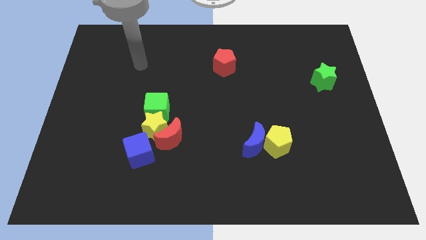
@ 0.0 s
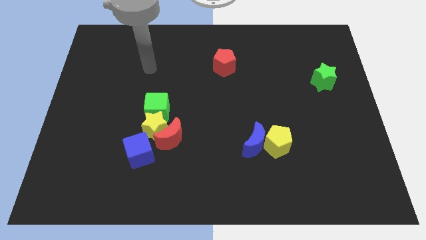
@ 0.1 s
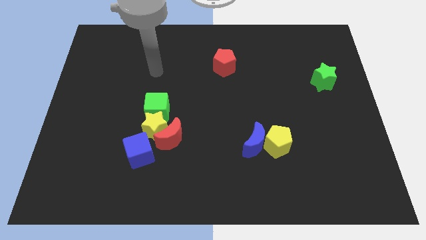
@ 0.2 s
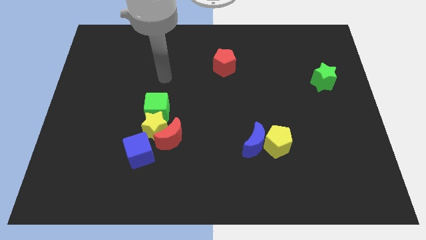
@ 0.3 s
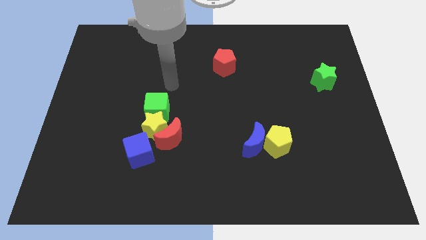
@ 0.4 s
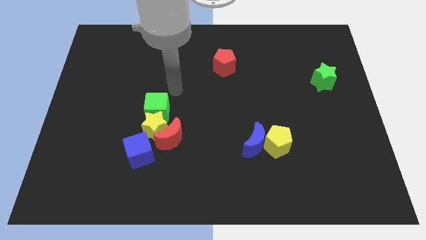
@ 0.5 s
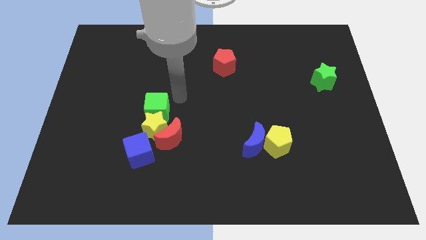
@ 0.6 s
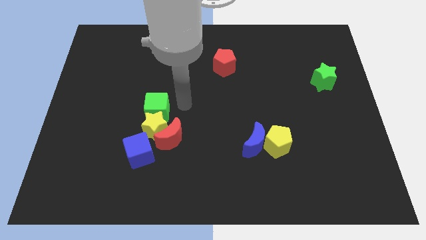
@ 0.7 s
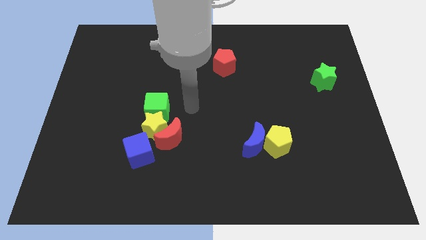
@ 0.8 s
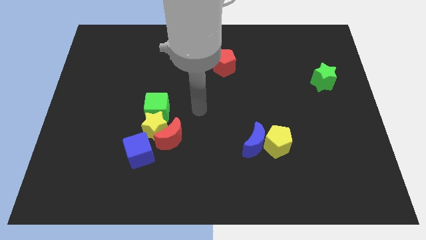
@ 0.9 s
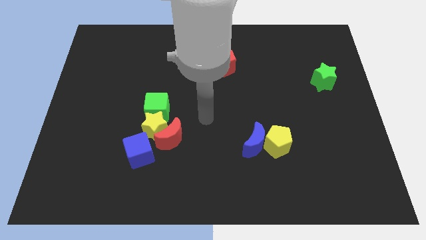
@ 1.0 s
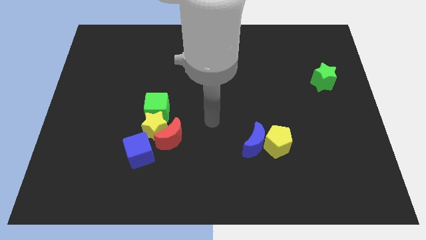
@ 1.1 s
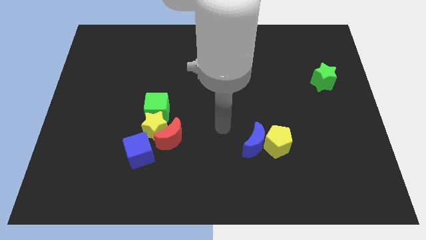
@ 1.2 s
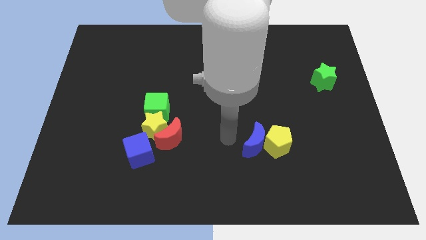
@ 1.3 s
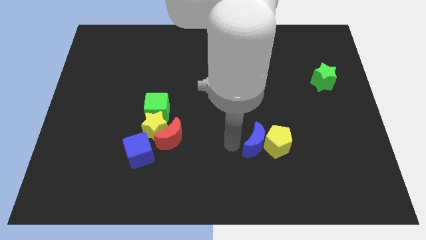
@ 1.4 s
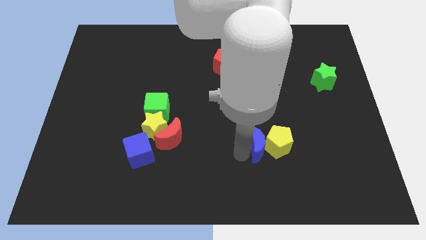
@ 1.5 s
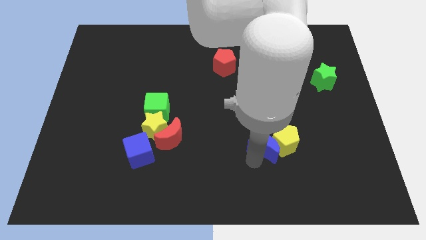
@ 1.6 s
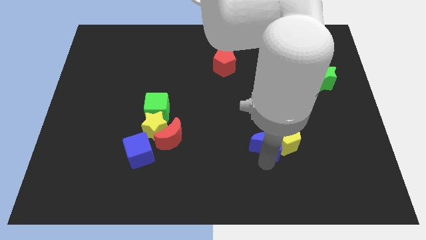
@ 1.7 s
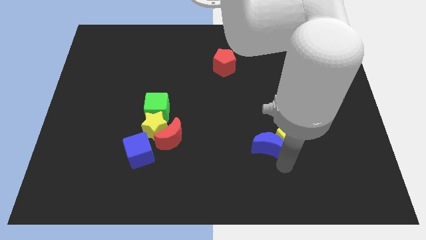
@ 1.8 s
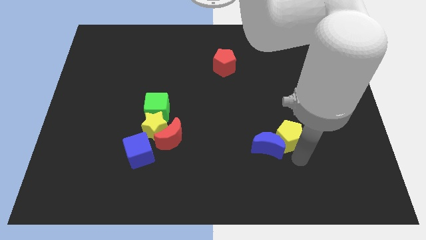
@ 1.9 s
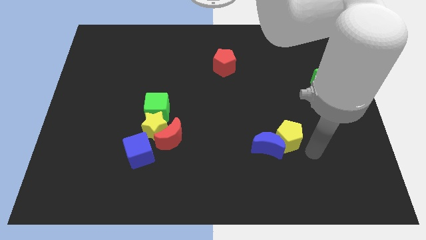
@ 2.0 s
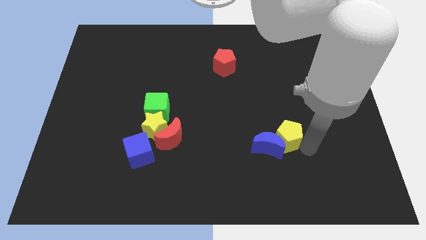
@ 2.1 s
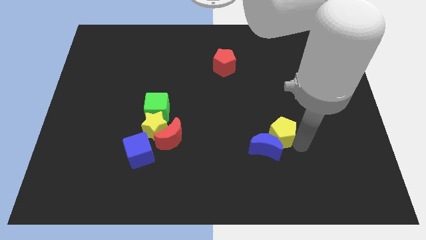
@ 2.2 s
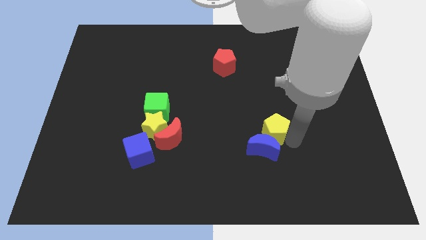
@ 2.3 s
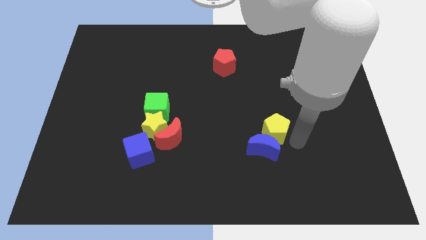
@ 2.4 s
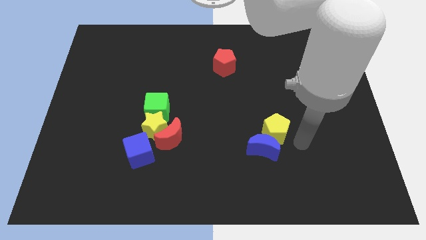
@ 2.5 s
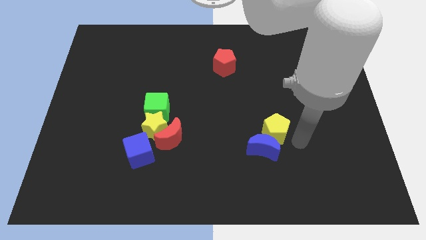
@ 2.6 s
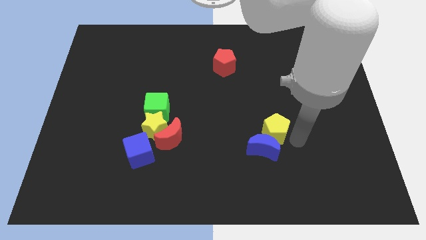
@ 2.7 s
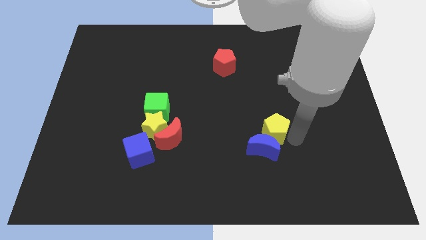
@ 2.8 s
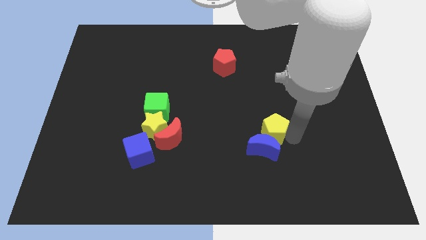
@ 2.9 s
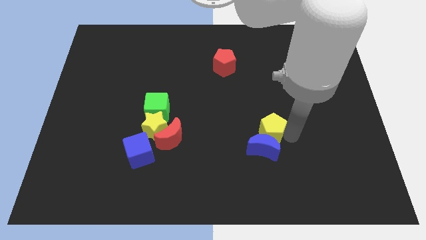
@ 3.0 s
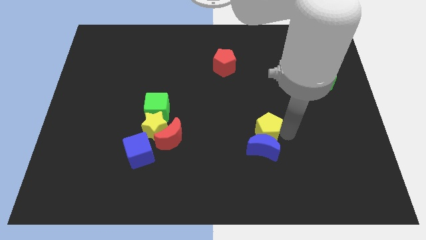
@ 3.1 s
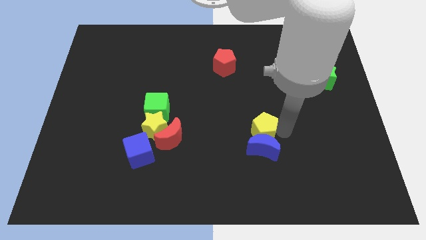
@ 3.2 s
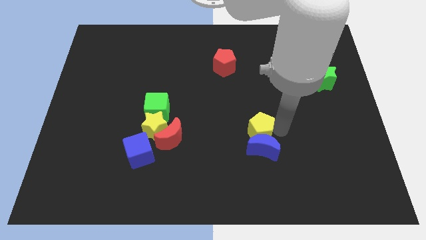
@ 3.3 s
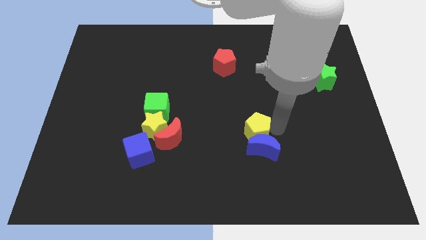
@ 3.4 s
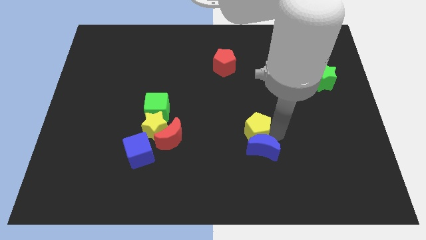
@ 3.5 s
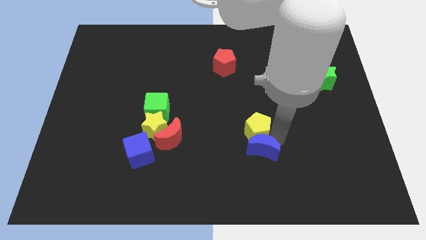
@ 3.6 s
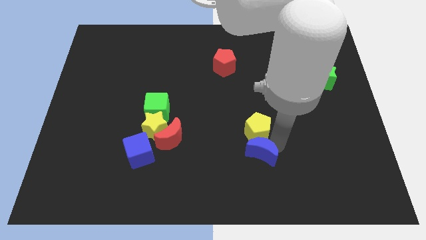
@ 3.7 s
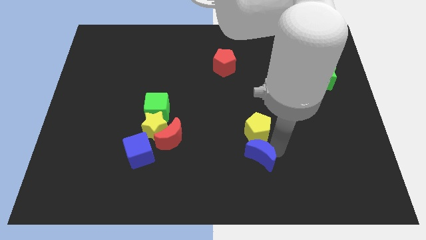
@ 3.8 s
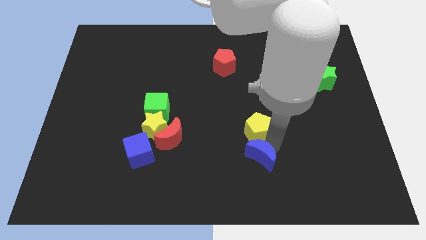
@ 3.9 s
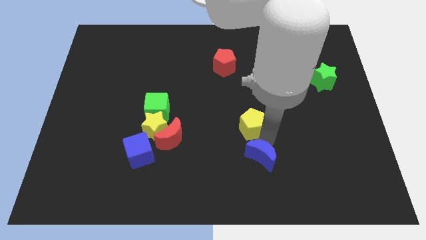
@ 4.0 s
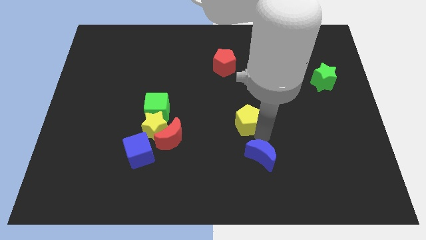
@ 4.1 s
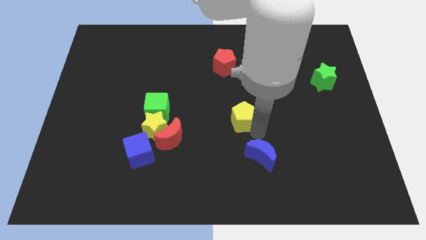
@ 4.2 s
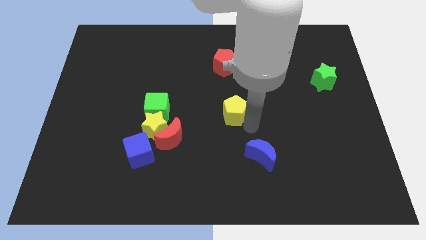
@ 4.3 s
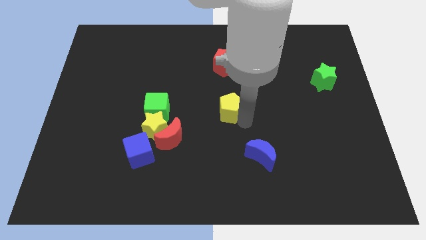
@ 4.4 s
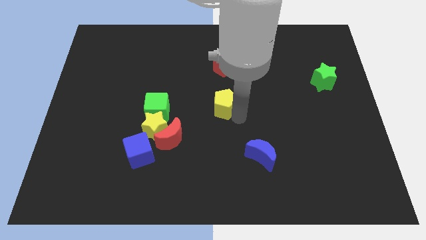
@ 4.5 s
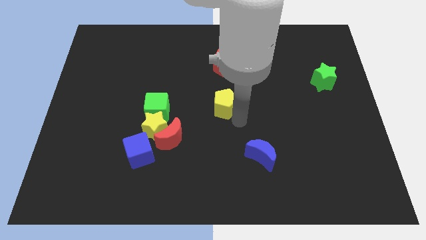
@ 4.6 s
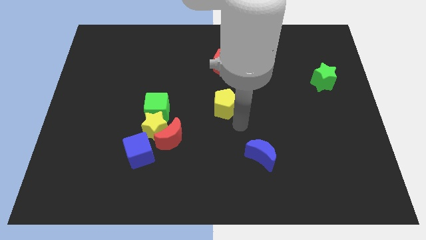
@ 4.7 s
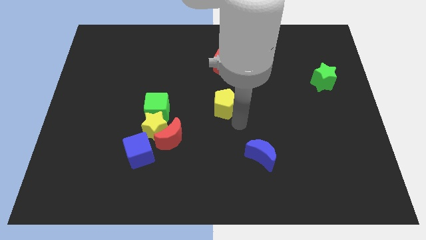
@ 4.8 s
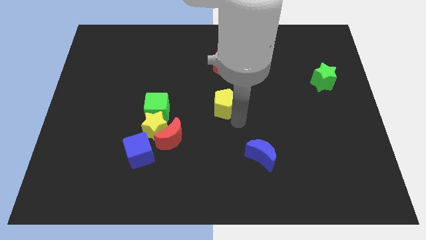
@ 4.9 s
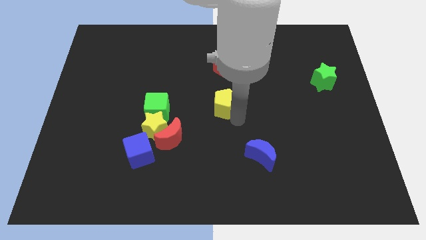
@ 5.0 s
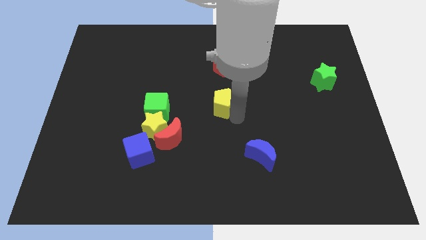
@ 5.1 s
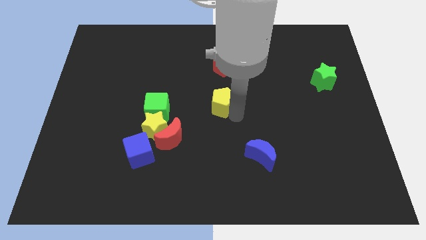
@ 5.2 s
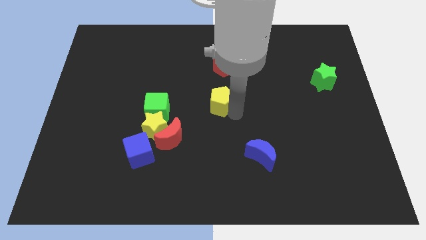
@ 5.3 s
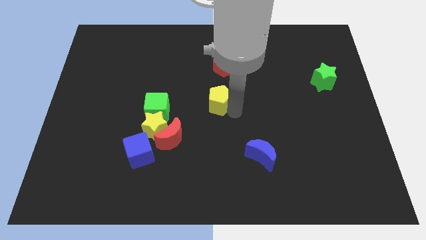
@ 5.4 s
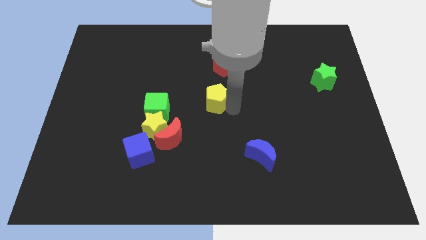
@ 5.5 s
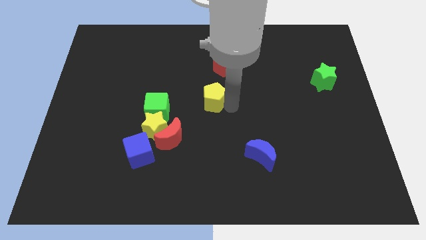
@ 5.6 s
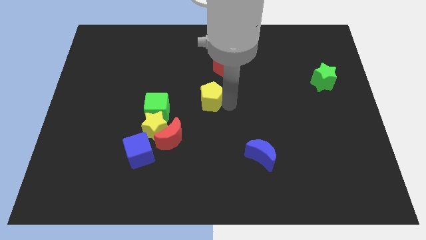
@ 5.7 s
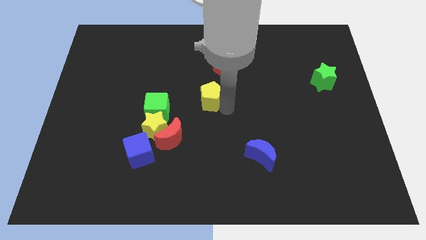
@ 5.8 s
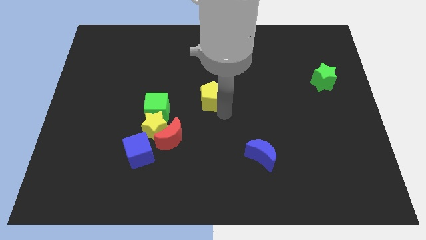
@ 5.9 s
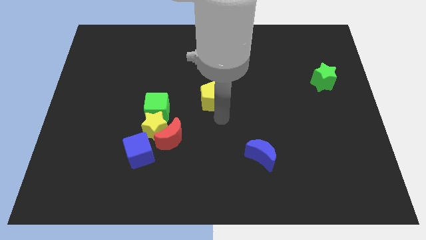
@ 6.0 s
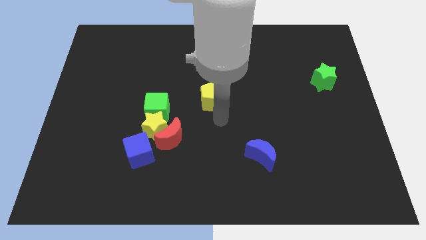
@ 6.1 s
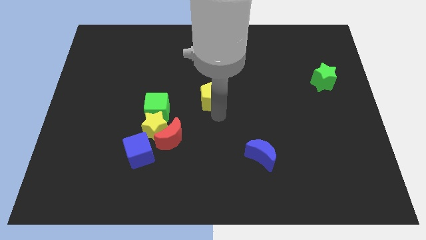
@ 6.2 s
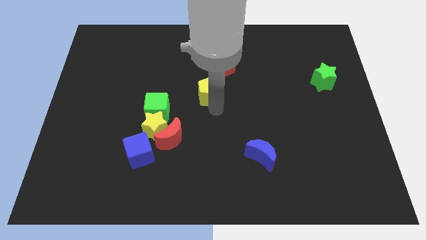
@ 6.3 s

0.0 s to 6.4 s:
move the yellow pentagon to the bottom left side of the red pentagon

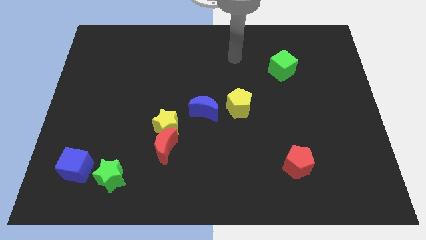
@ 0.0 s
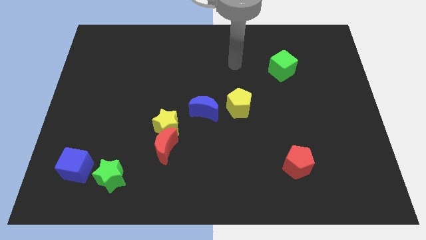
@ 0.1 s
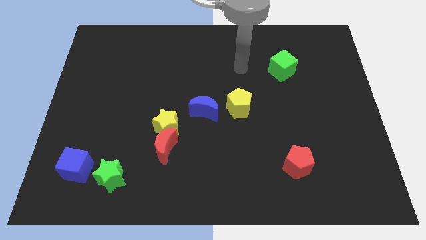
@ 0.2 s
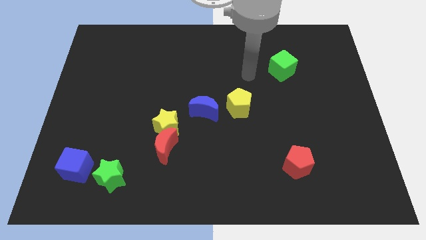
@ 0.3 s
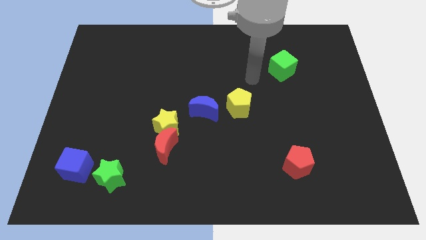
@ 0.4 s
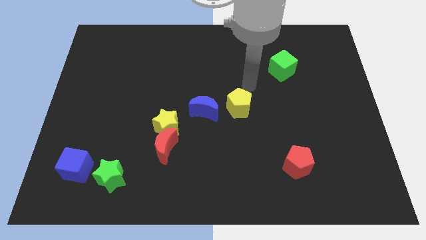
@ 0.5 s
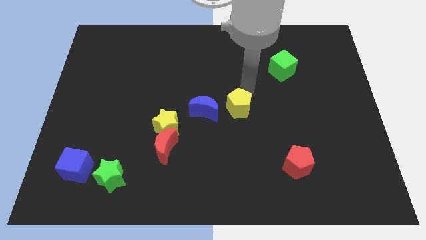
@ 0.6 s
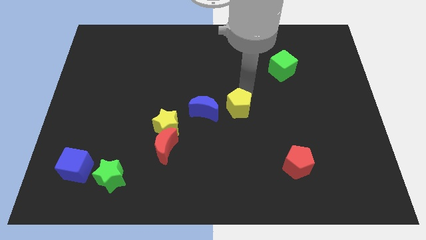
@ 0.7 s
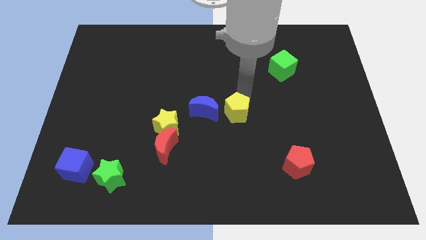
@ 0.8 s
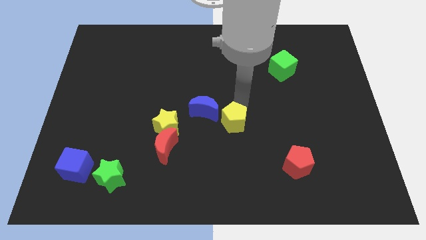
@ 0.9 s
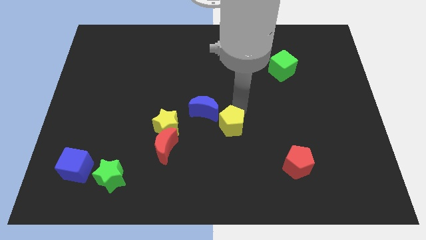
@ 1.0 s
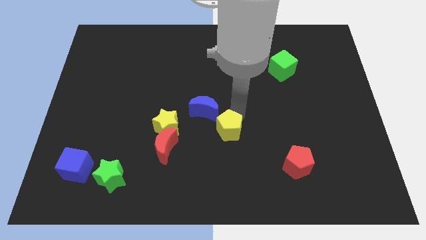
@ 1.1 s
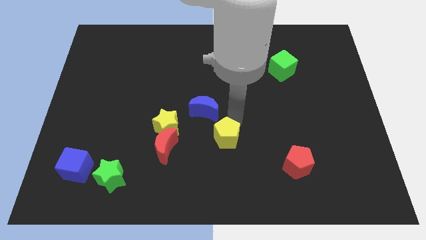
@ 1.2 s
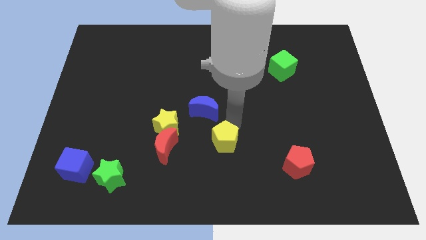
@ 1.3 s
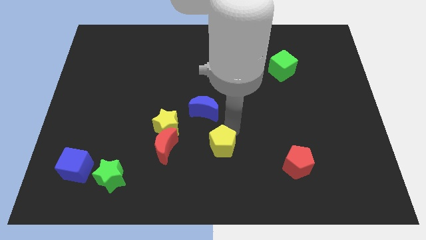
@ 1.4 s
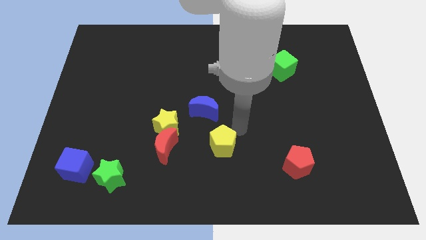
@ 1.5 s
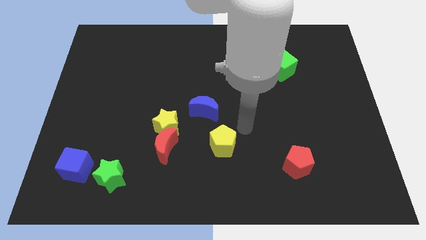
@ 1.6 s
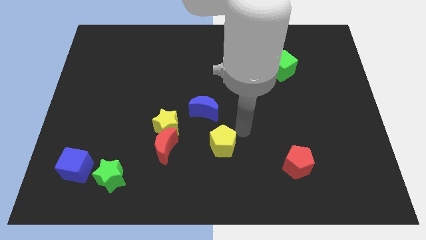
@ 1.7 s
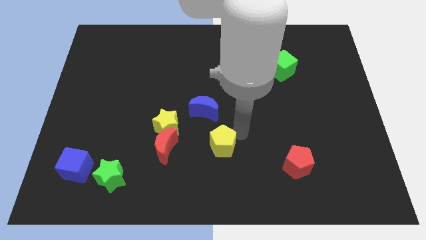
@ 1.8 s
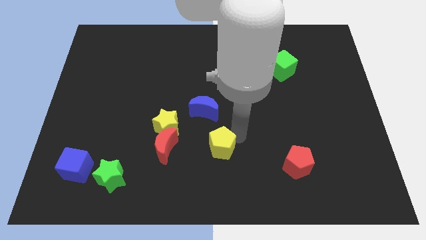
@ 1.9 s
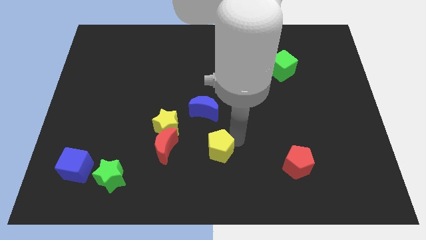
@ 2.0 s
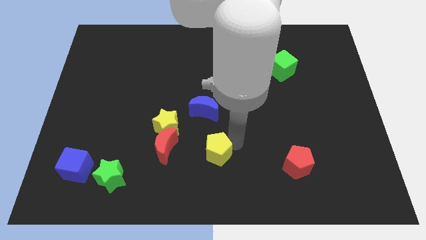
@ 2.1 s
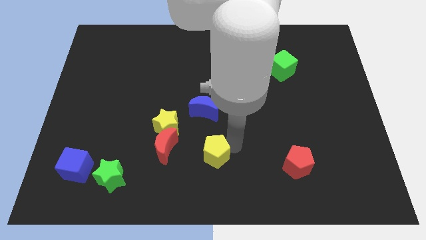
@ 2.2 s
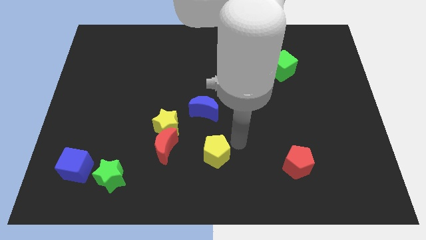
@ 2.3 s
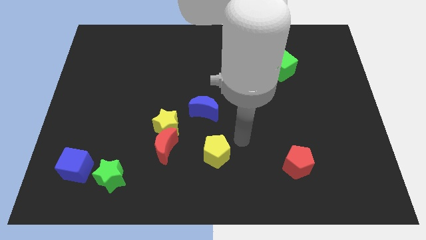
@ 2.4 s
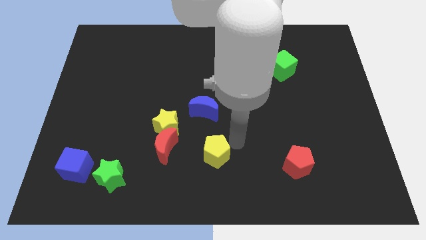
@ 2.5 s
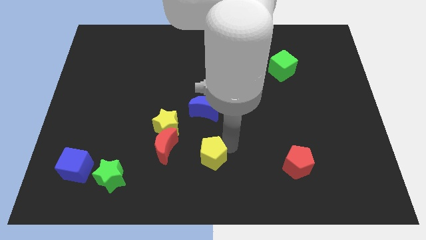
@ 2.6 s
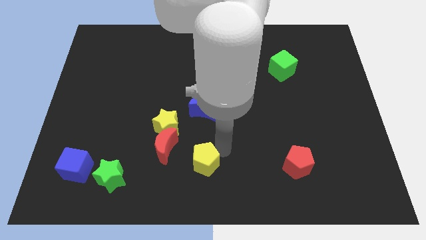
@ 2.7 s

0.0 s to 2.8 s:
move the yellow pentagon to the bottom right side of the red moon
